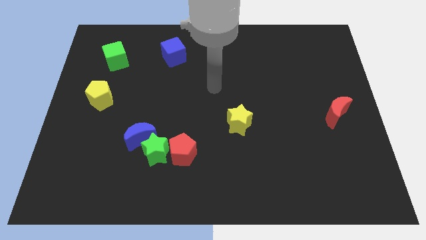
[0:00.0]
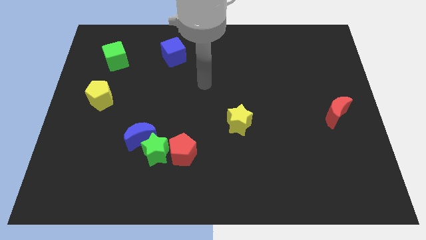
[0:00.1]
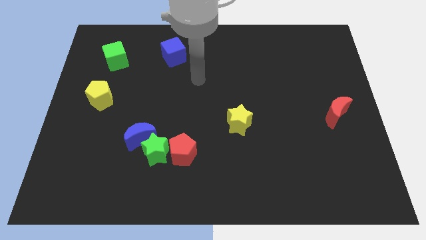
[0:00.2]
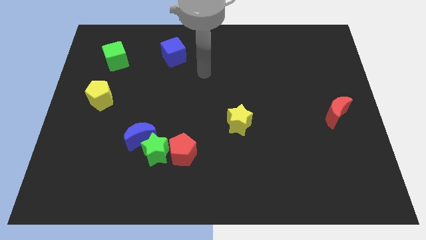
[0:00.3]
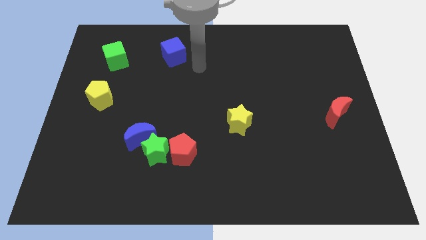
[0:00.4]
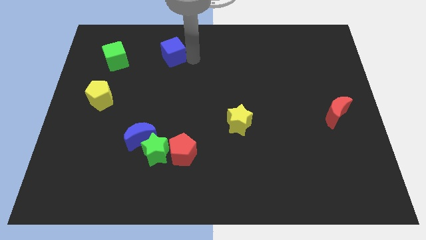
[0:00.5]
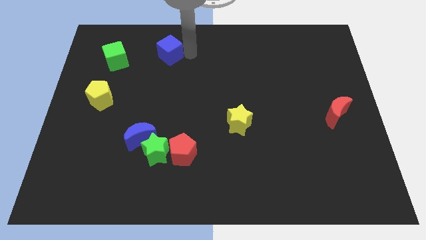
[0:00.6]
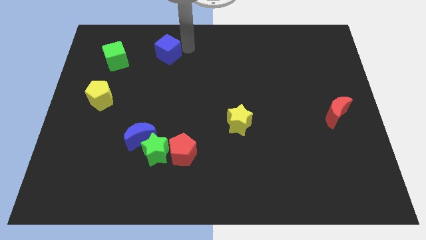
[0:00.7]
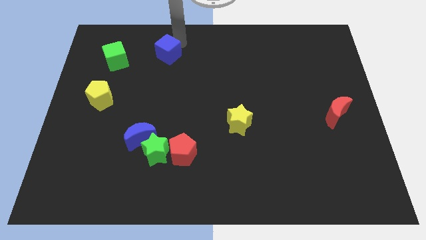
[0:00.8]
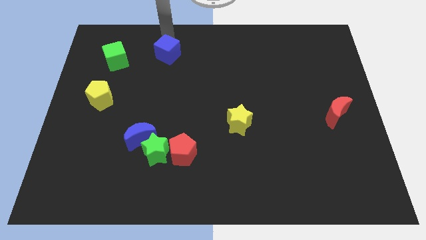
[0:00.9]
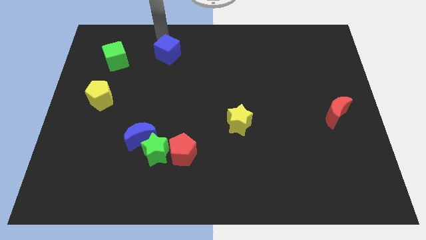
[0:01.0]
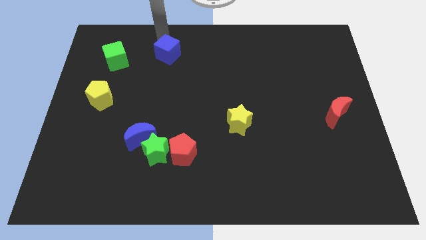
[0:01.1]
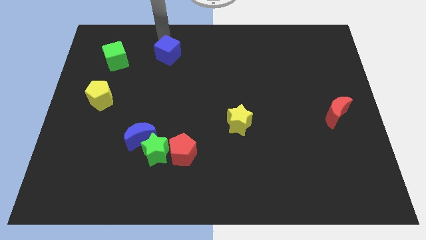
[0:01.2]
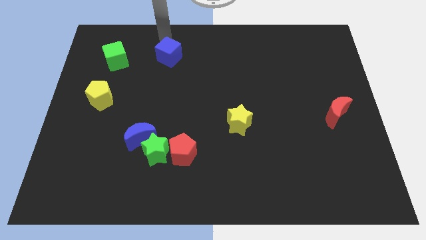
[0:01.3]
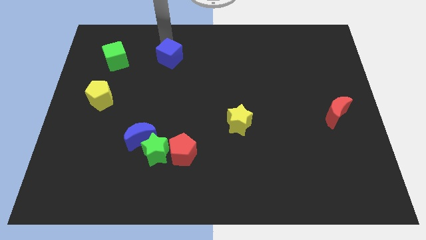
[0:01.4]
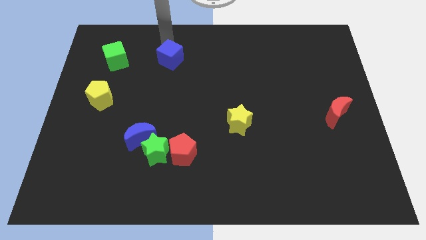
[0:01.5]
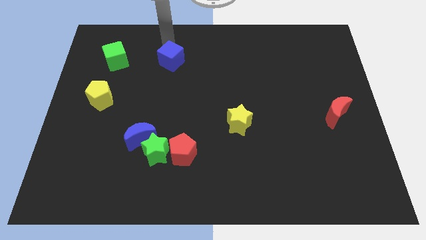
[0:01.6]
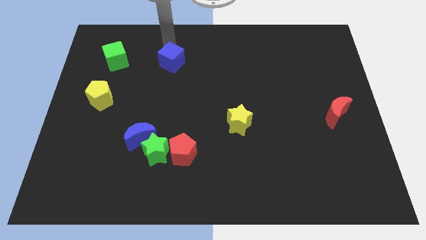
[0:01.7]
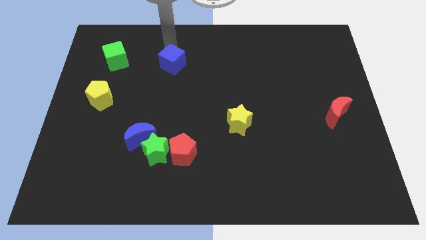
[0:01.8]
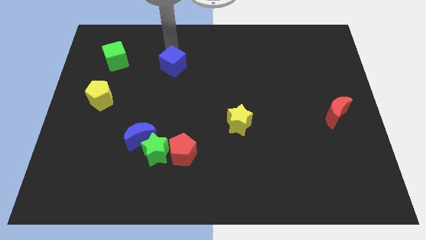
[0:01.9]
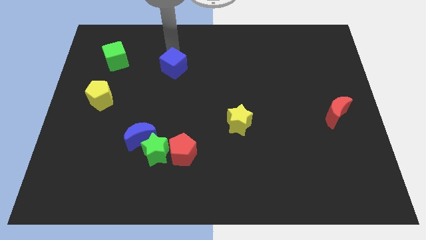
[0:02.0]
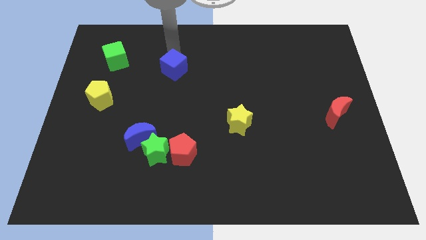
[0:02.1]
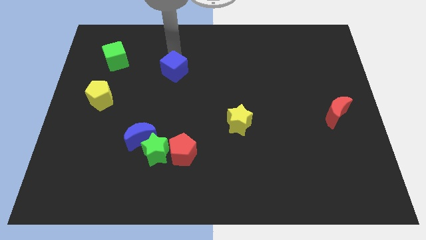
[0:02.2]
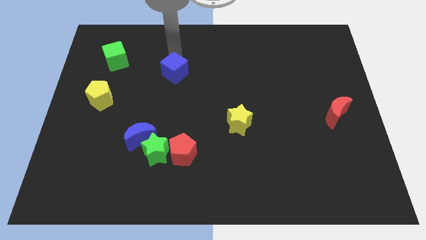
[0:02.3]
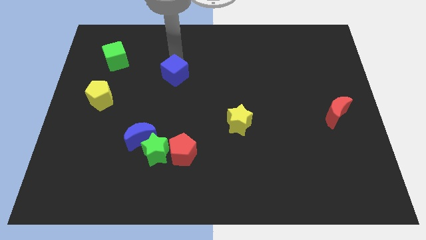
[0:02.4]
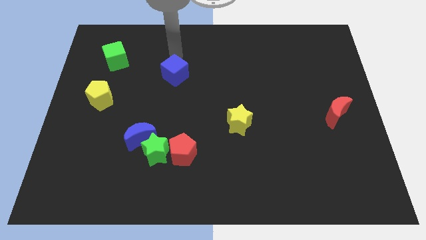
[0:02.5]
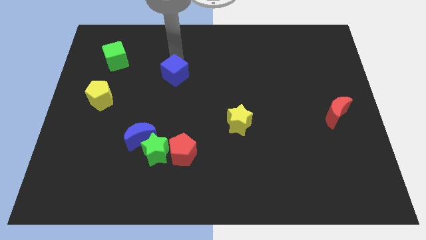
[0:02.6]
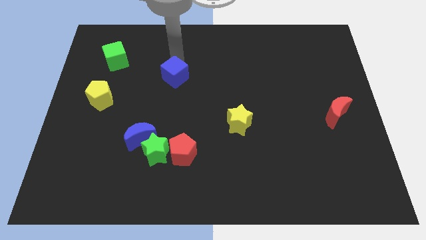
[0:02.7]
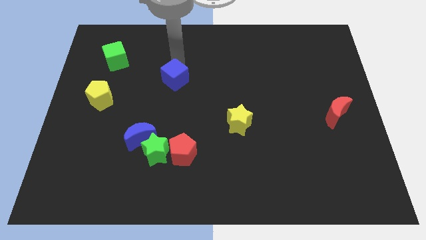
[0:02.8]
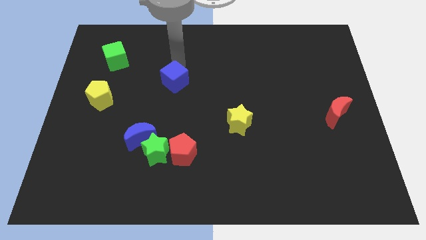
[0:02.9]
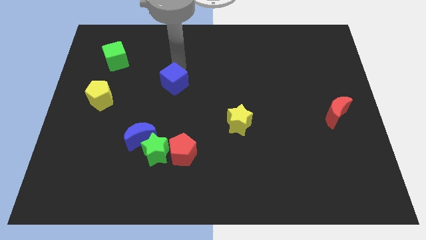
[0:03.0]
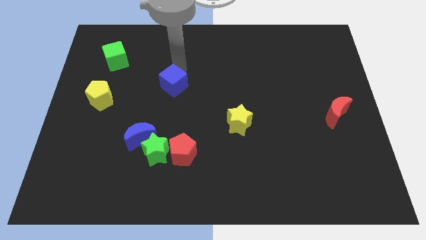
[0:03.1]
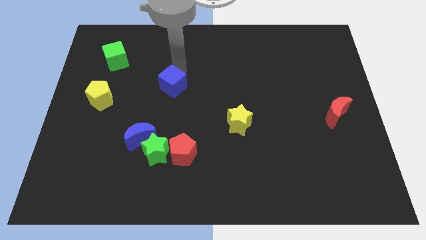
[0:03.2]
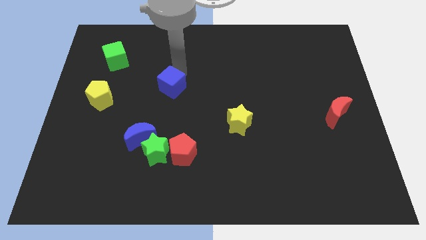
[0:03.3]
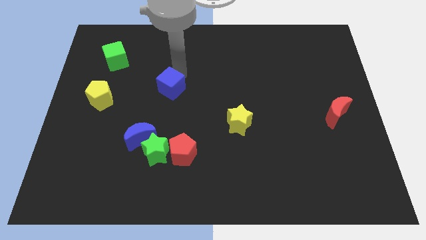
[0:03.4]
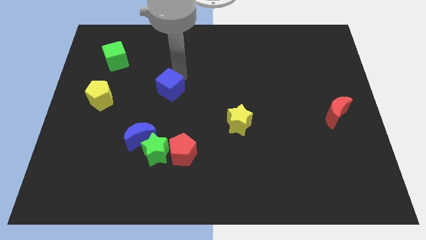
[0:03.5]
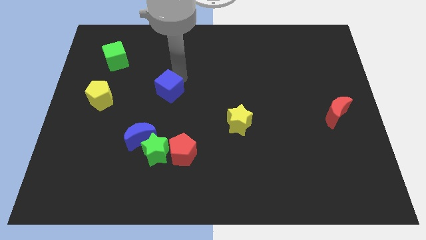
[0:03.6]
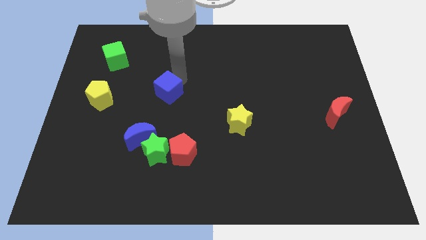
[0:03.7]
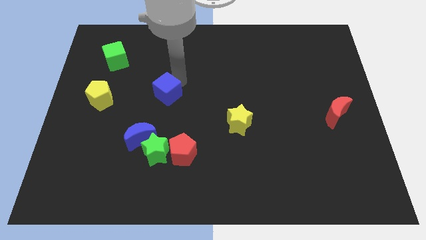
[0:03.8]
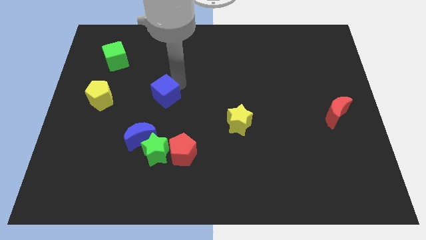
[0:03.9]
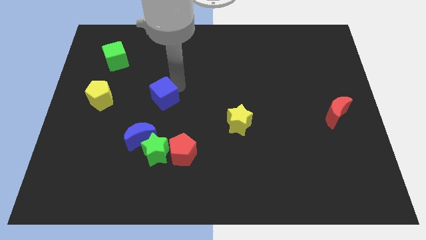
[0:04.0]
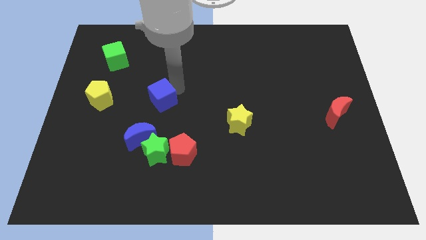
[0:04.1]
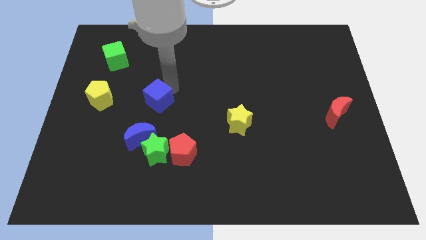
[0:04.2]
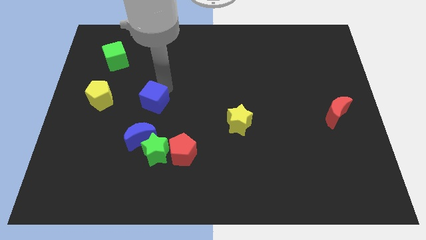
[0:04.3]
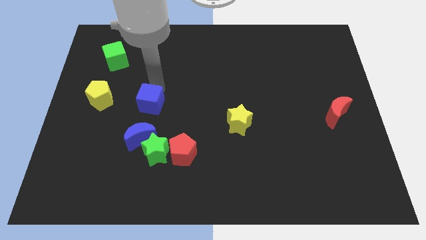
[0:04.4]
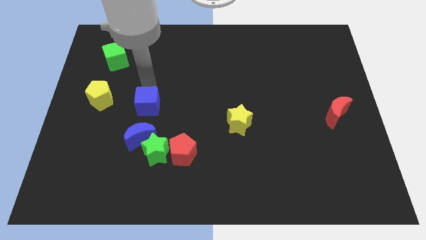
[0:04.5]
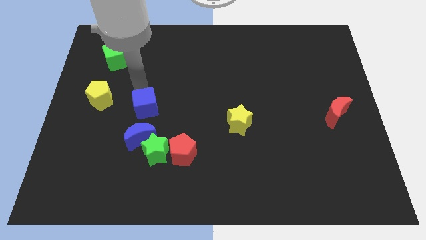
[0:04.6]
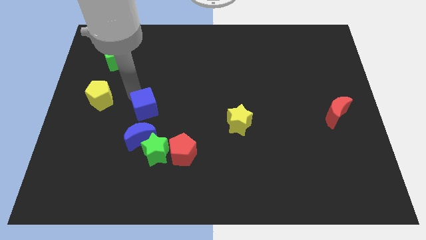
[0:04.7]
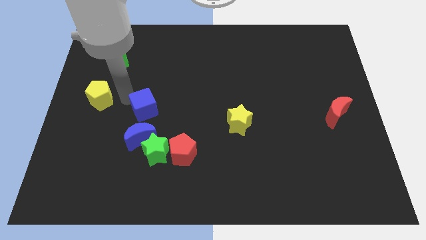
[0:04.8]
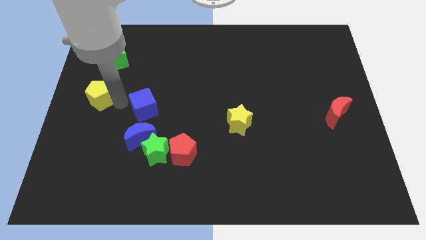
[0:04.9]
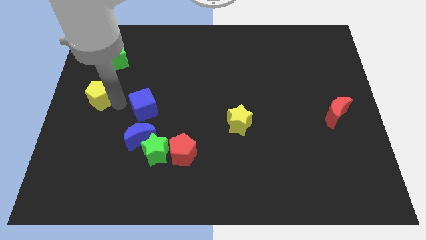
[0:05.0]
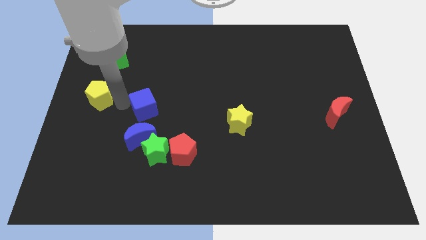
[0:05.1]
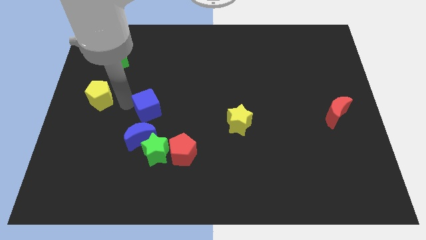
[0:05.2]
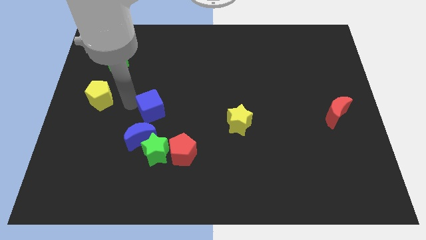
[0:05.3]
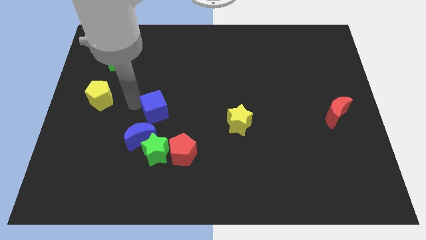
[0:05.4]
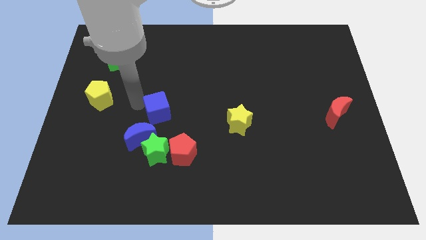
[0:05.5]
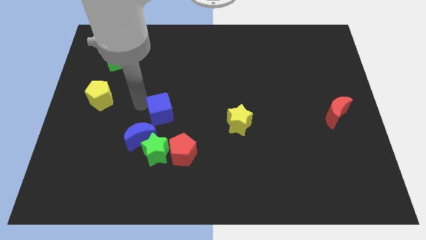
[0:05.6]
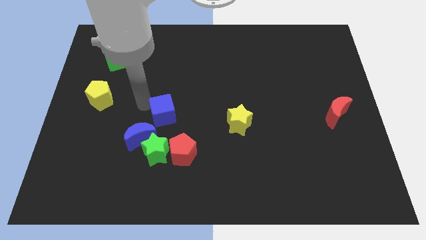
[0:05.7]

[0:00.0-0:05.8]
move the blue cube above the red pentagon

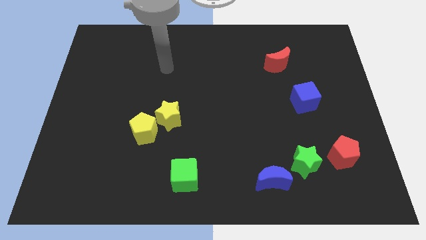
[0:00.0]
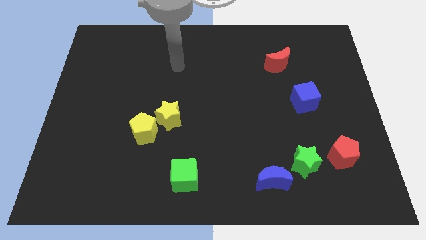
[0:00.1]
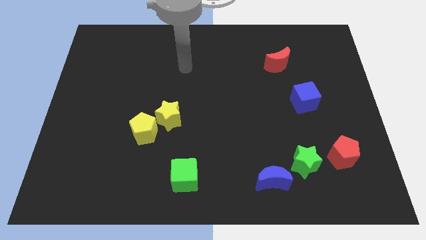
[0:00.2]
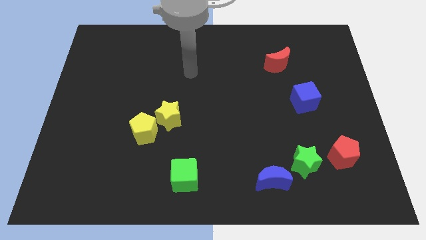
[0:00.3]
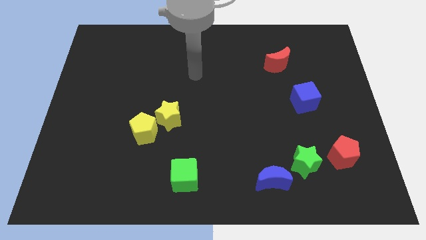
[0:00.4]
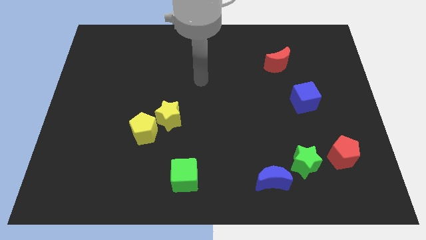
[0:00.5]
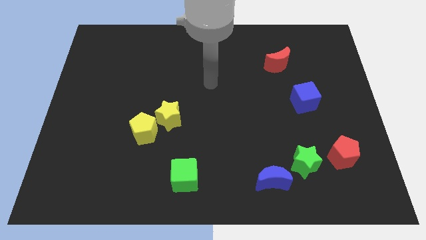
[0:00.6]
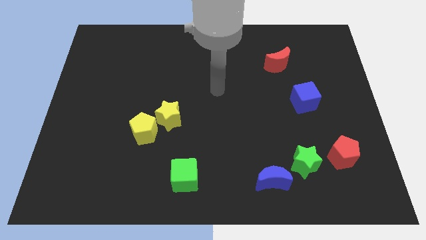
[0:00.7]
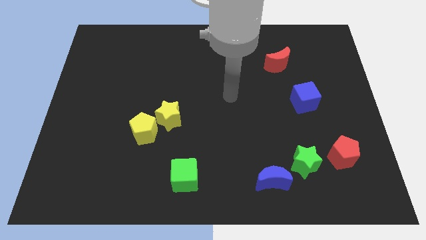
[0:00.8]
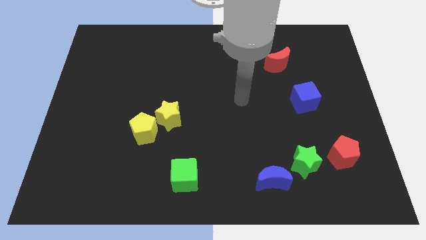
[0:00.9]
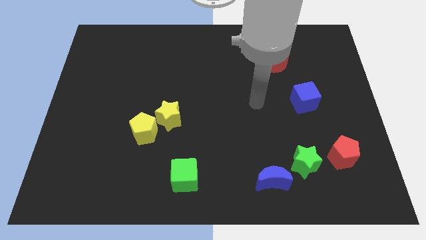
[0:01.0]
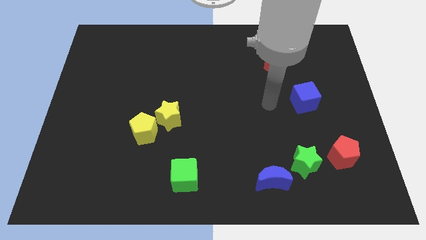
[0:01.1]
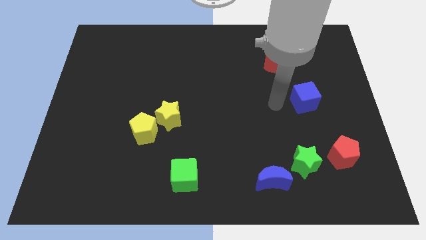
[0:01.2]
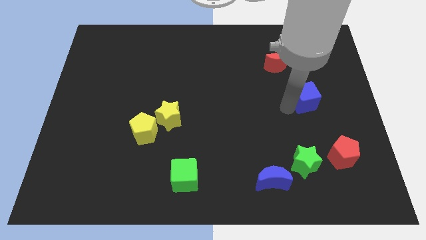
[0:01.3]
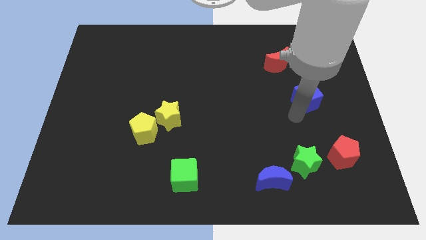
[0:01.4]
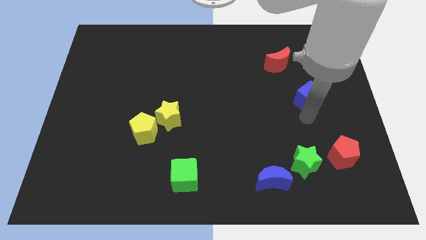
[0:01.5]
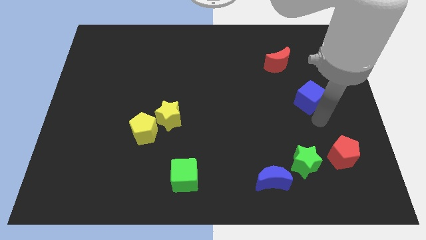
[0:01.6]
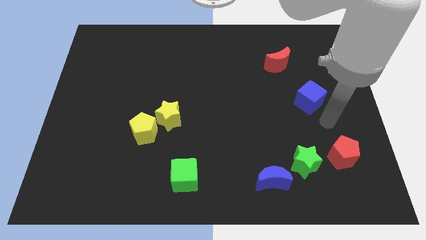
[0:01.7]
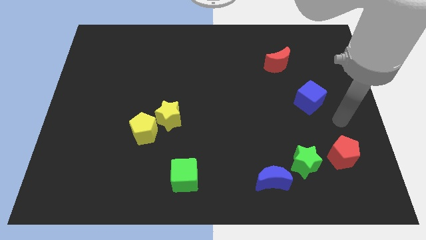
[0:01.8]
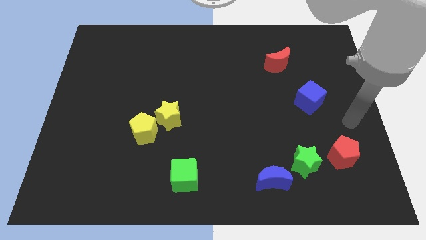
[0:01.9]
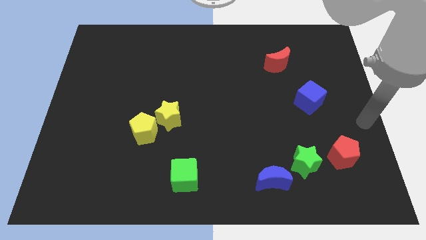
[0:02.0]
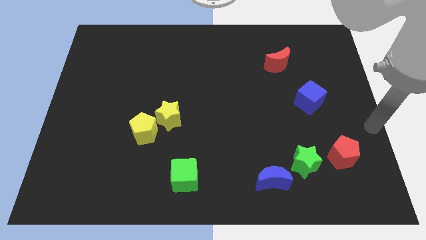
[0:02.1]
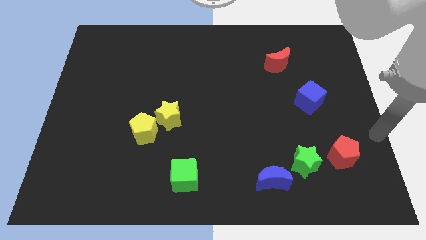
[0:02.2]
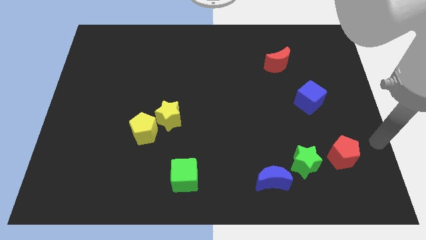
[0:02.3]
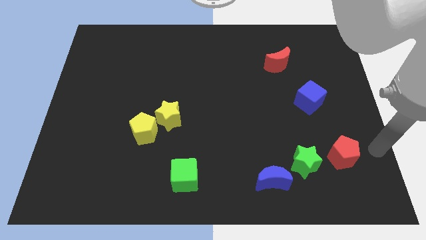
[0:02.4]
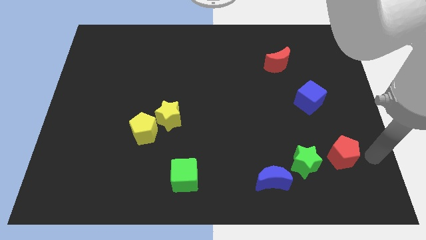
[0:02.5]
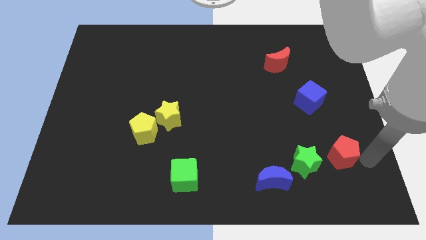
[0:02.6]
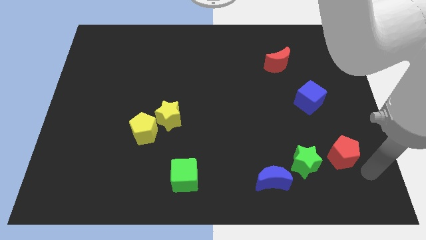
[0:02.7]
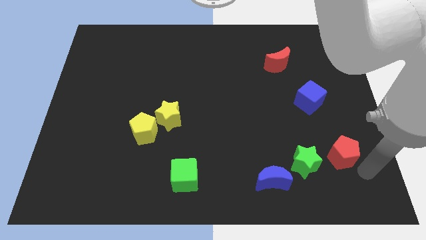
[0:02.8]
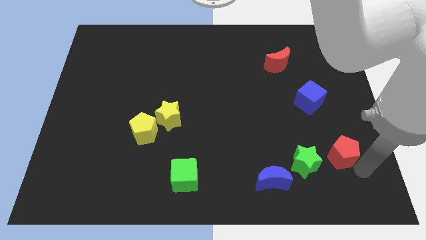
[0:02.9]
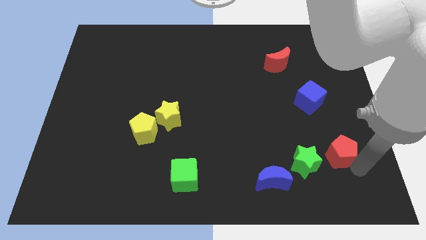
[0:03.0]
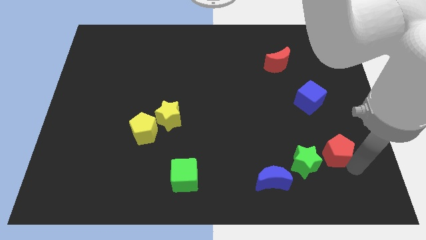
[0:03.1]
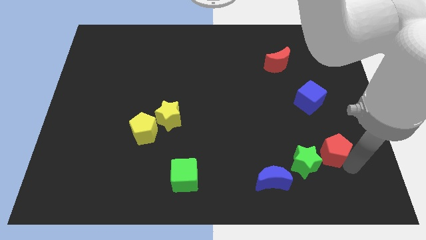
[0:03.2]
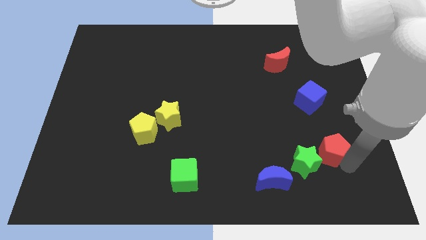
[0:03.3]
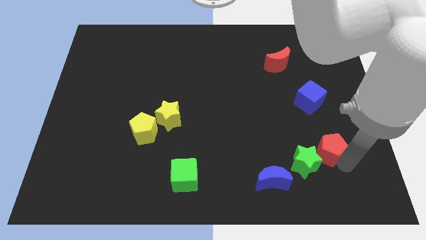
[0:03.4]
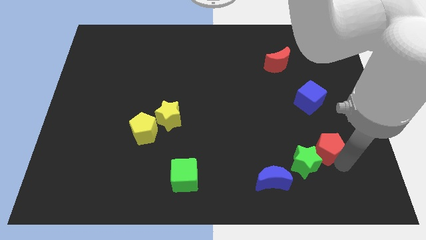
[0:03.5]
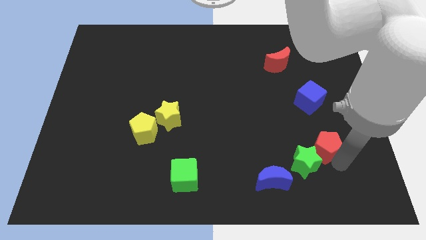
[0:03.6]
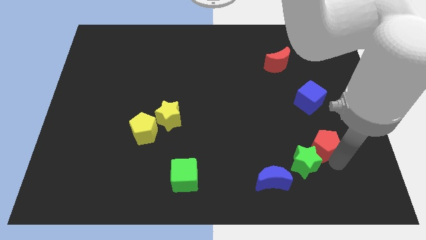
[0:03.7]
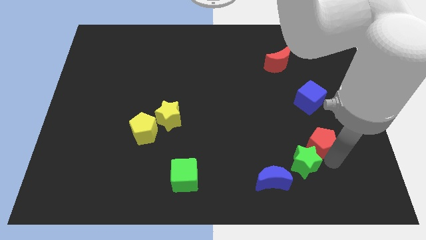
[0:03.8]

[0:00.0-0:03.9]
slide the red pentagon above the green star
